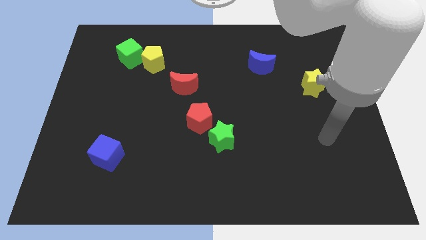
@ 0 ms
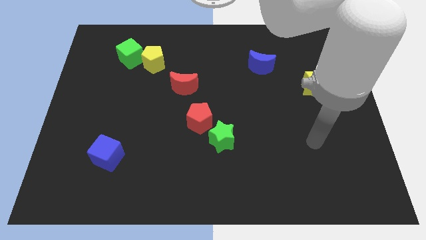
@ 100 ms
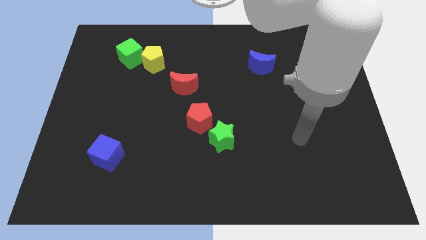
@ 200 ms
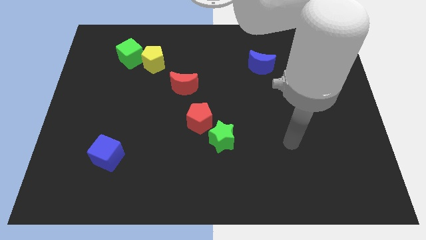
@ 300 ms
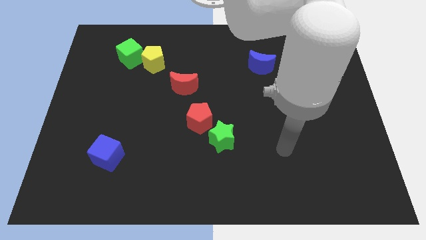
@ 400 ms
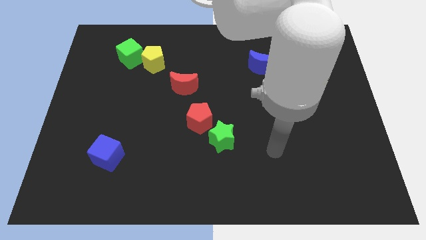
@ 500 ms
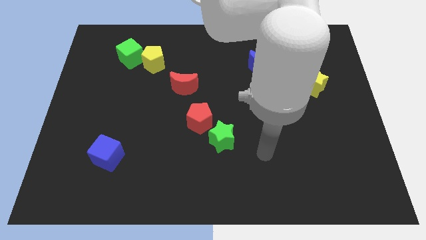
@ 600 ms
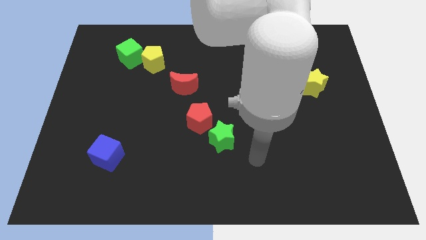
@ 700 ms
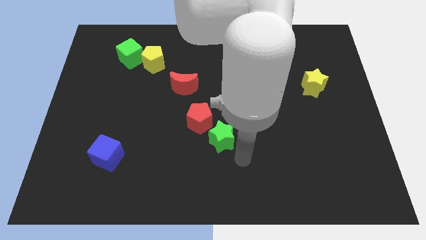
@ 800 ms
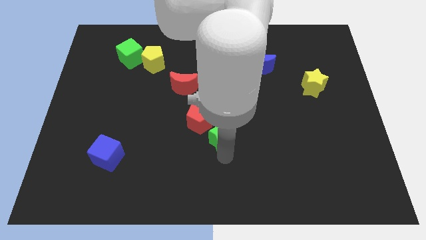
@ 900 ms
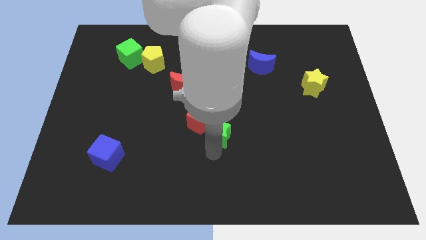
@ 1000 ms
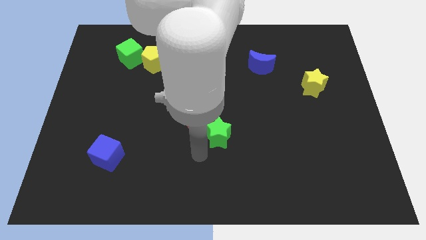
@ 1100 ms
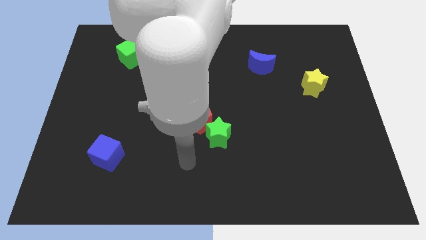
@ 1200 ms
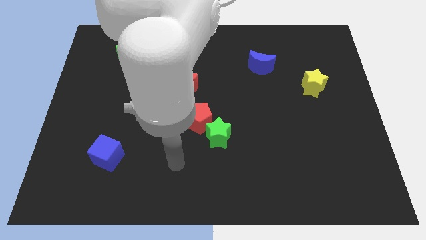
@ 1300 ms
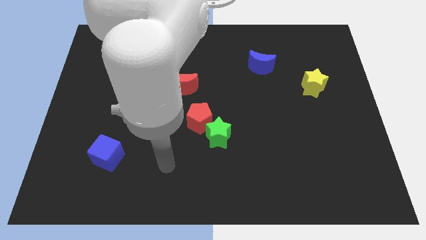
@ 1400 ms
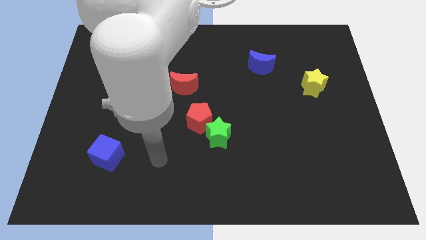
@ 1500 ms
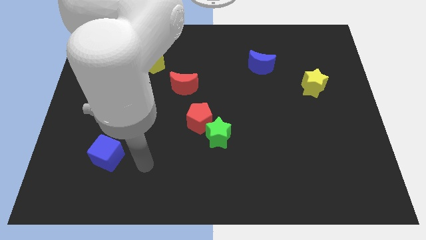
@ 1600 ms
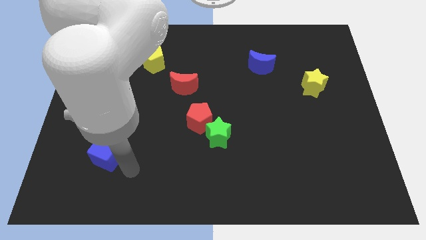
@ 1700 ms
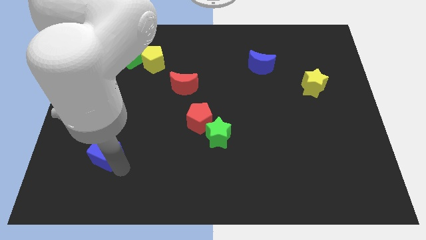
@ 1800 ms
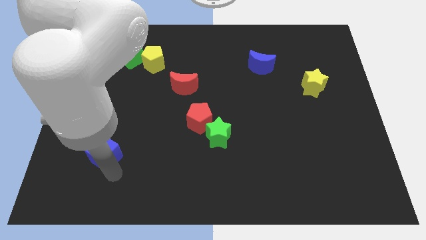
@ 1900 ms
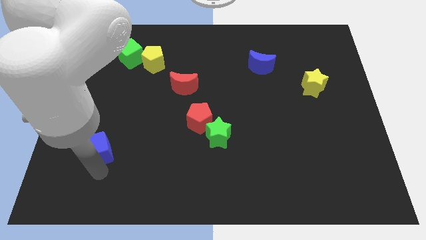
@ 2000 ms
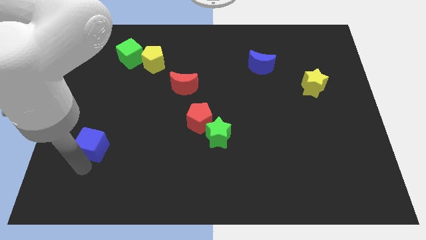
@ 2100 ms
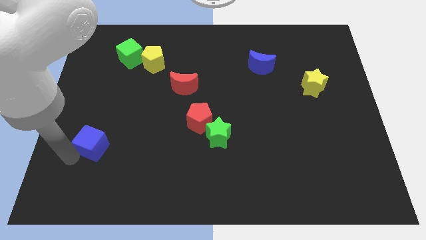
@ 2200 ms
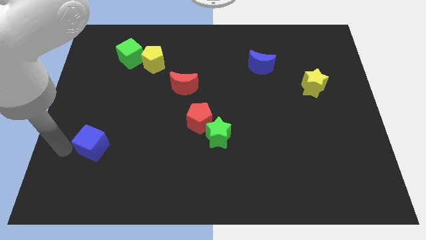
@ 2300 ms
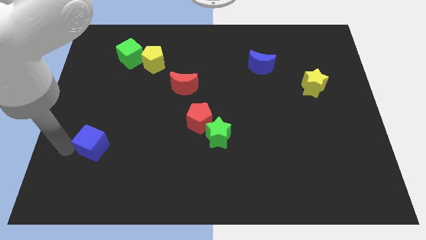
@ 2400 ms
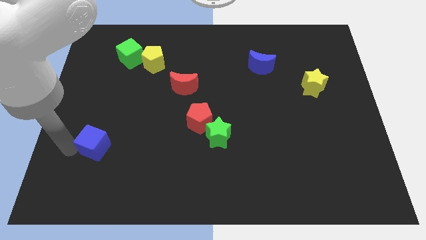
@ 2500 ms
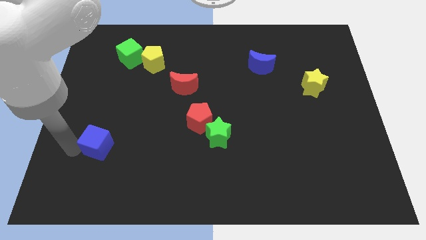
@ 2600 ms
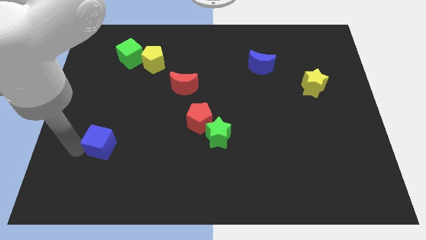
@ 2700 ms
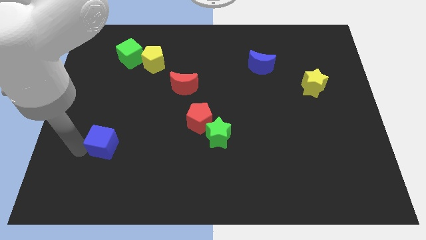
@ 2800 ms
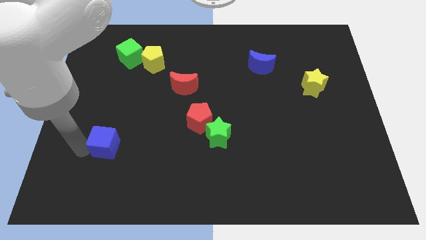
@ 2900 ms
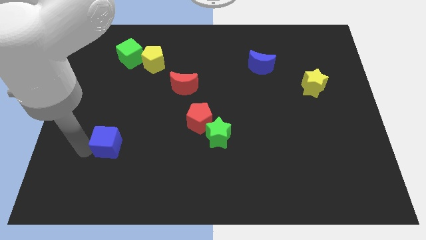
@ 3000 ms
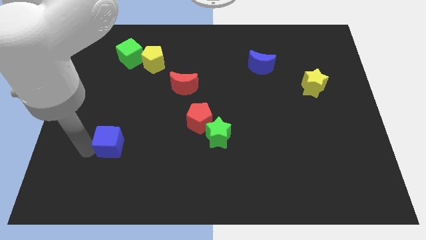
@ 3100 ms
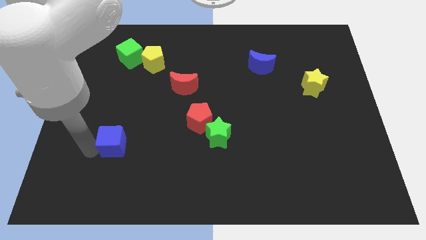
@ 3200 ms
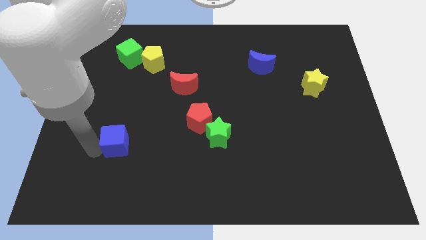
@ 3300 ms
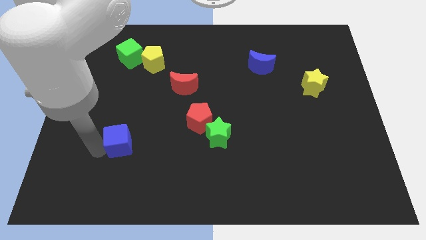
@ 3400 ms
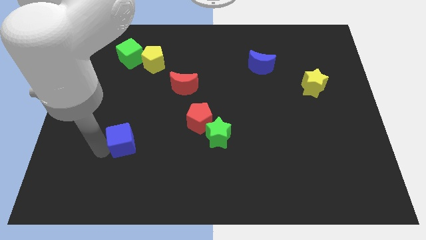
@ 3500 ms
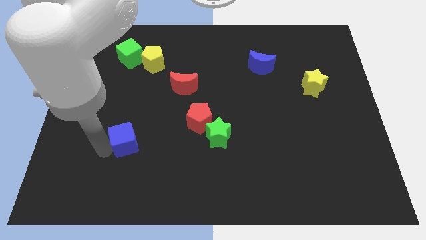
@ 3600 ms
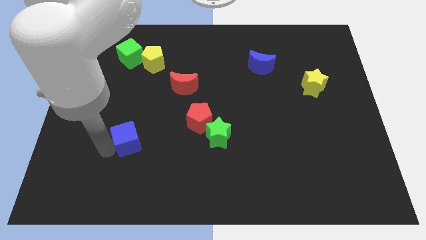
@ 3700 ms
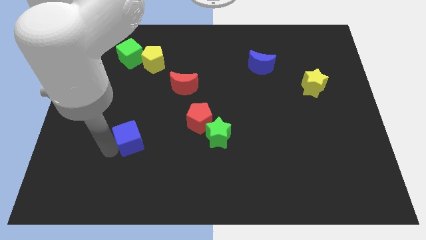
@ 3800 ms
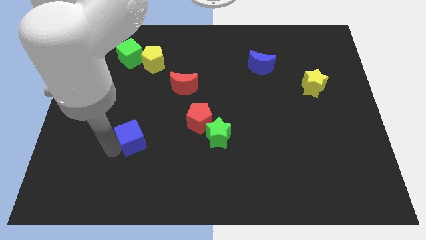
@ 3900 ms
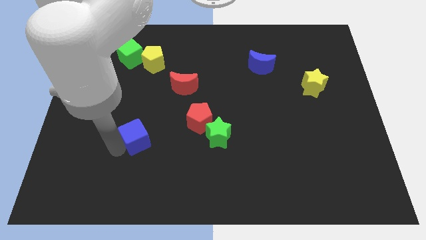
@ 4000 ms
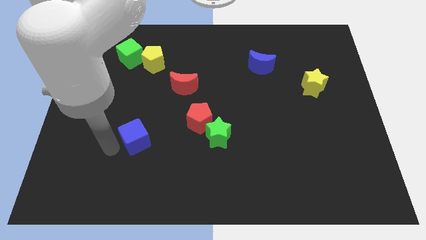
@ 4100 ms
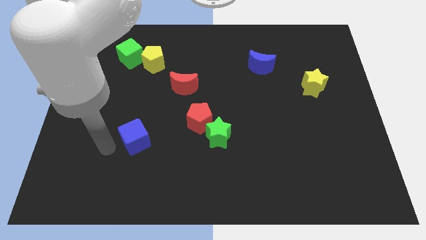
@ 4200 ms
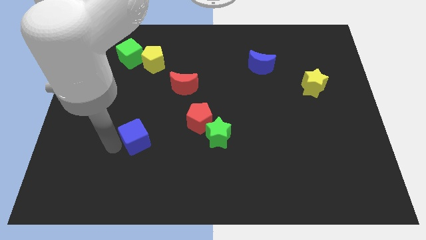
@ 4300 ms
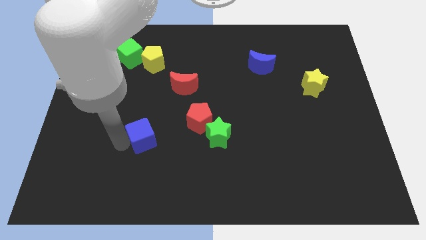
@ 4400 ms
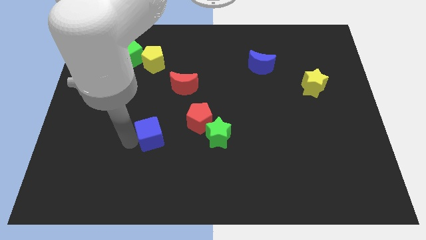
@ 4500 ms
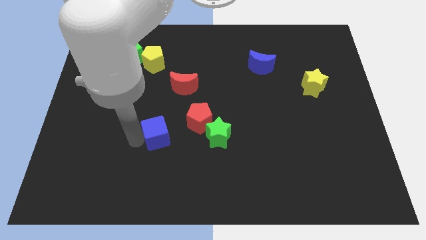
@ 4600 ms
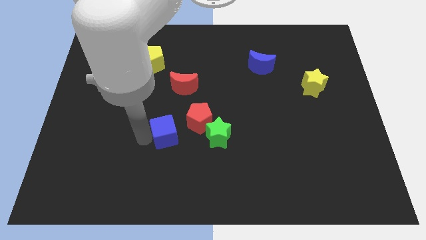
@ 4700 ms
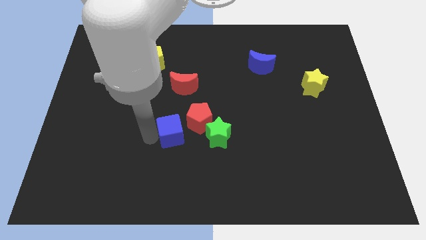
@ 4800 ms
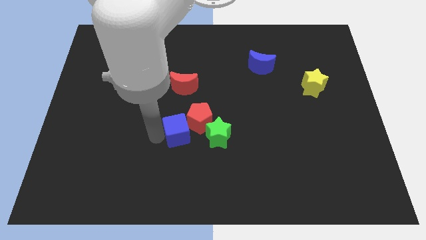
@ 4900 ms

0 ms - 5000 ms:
put the blue cube to the red pentagon

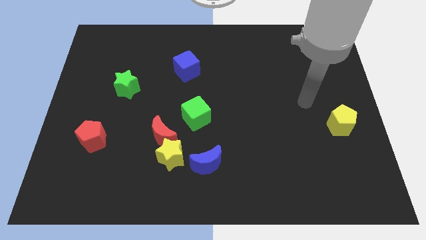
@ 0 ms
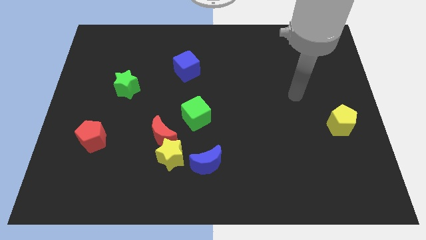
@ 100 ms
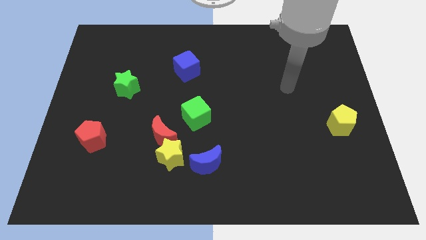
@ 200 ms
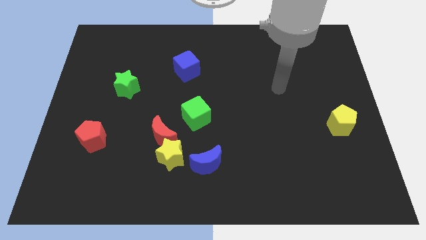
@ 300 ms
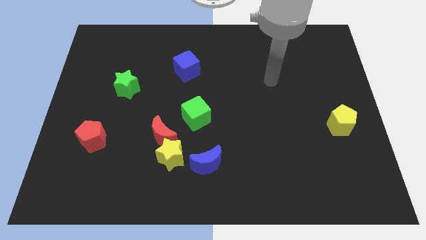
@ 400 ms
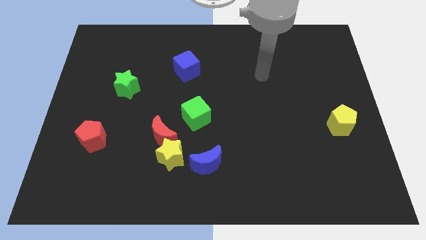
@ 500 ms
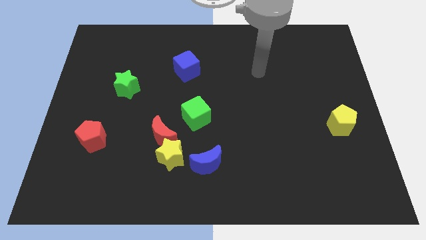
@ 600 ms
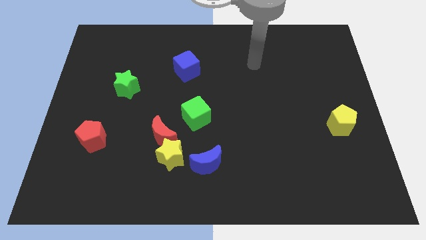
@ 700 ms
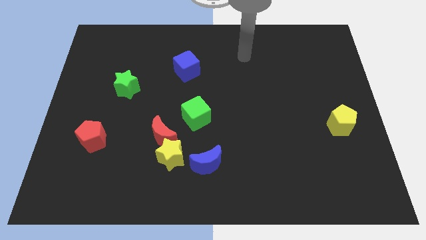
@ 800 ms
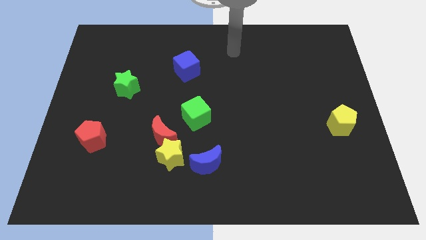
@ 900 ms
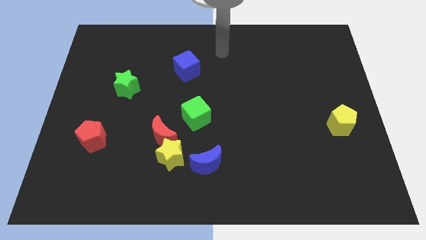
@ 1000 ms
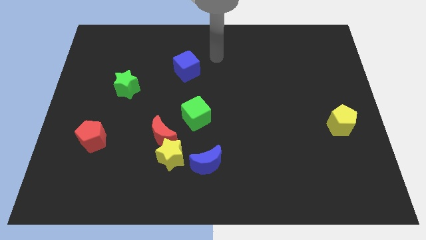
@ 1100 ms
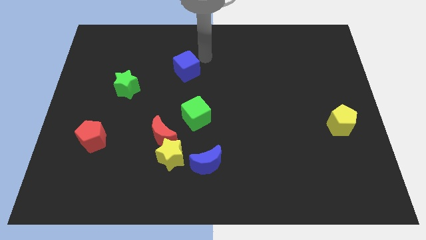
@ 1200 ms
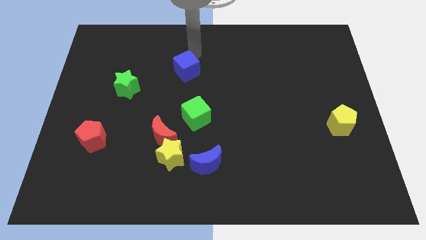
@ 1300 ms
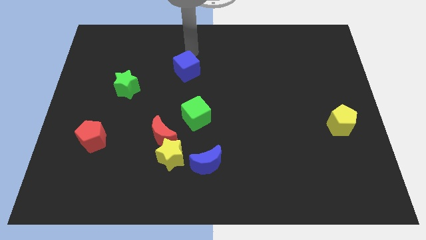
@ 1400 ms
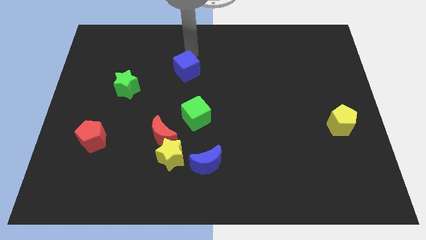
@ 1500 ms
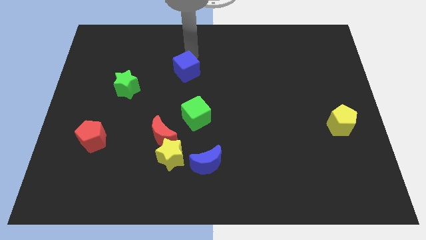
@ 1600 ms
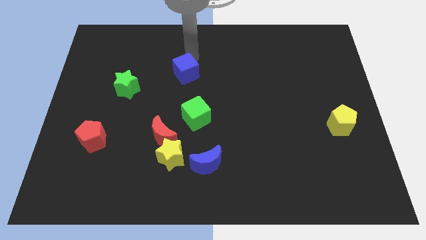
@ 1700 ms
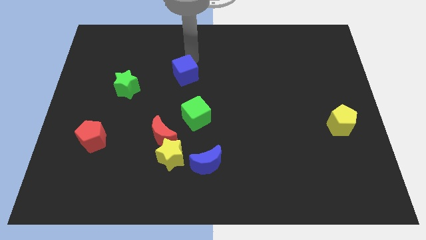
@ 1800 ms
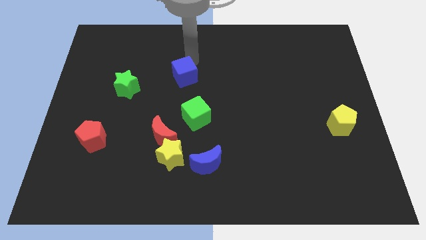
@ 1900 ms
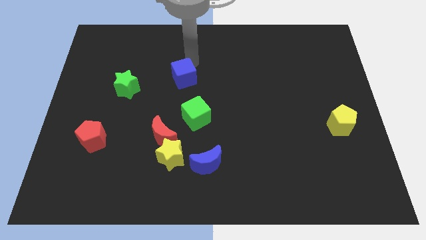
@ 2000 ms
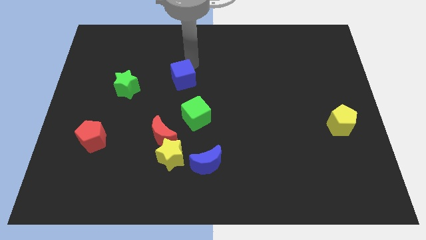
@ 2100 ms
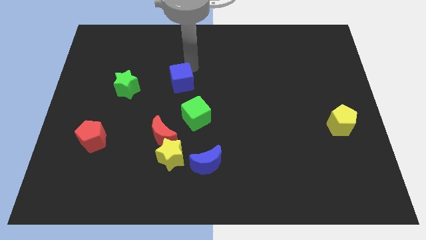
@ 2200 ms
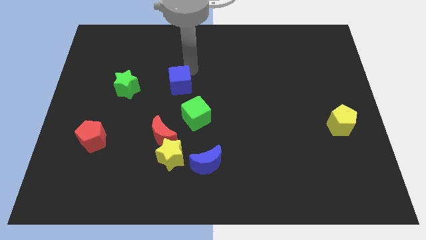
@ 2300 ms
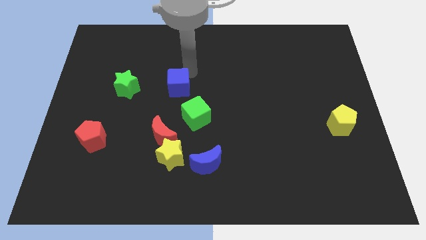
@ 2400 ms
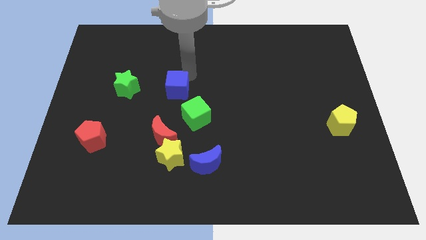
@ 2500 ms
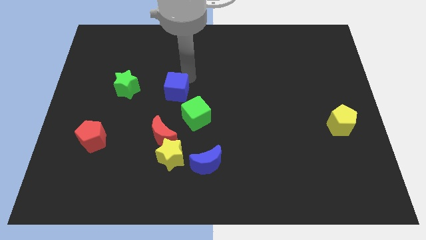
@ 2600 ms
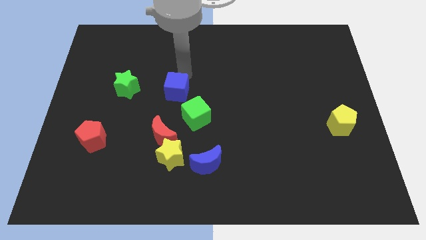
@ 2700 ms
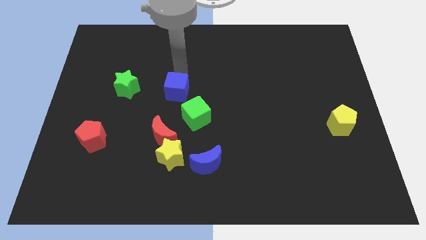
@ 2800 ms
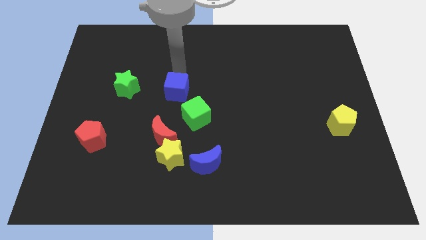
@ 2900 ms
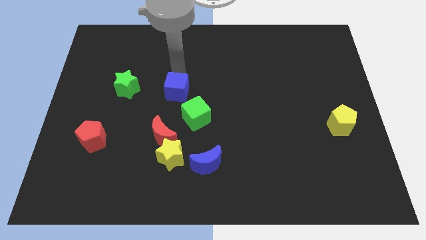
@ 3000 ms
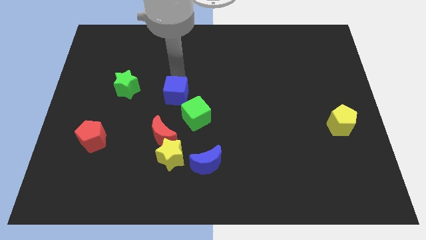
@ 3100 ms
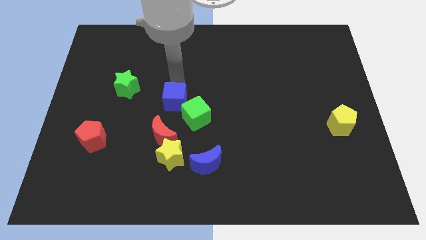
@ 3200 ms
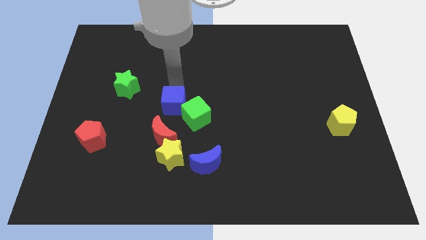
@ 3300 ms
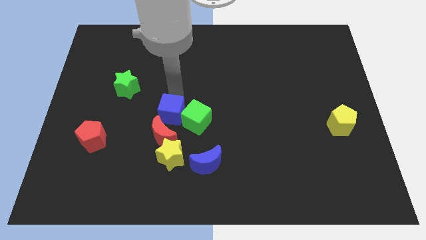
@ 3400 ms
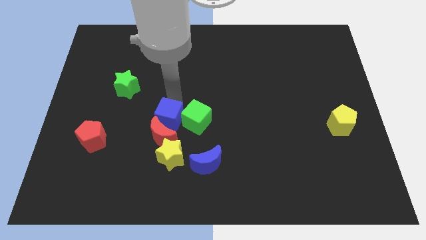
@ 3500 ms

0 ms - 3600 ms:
push the blue cube to the red moon
